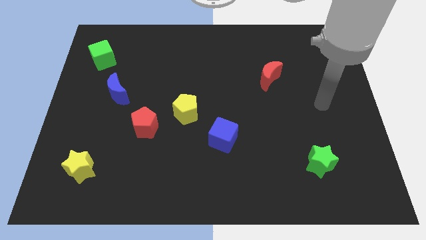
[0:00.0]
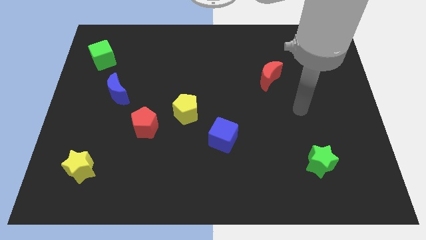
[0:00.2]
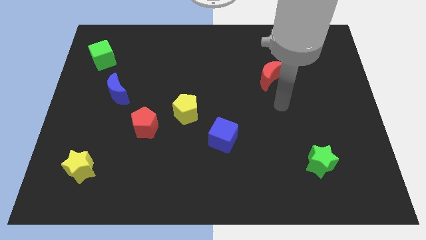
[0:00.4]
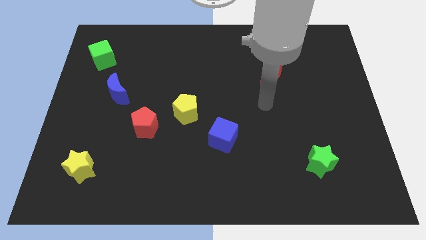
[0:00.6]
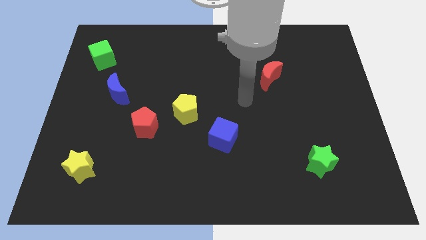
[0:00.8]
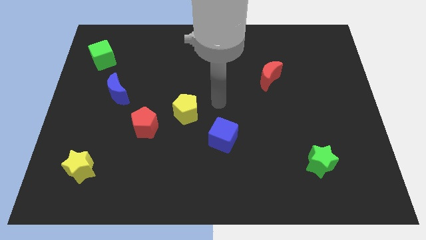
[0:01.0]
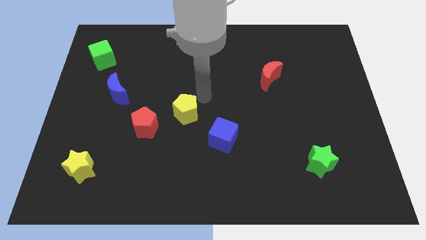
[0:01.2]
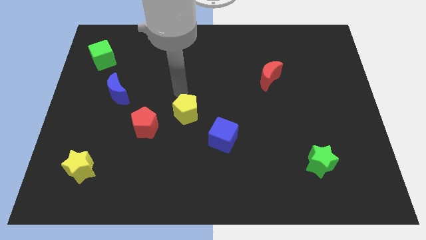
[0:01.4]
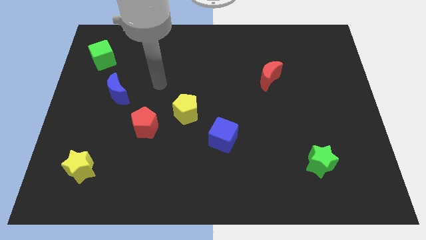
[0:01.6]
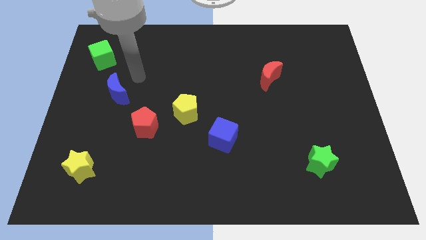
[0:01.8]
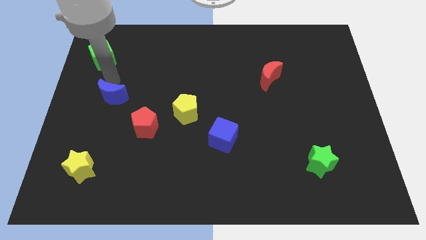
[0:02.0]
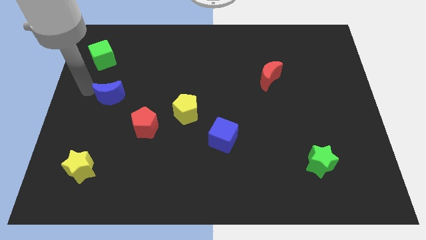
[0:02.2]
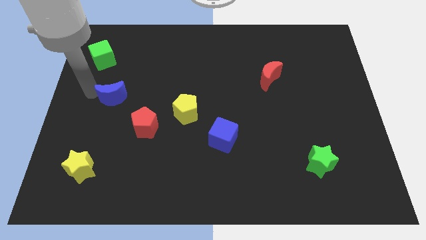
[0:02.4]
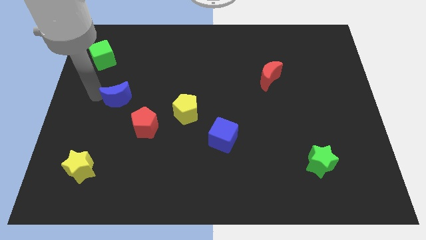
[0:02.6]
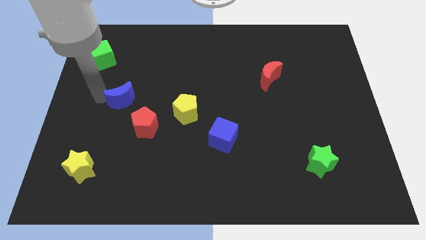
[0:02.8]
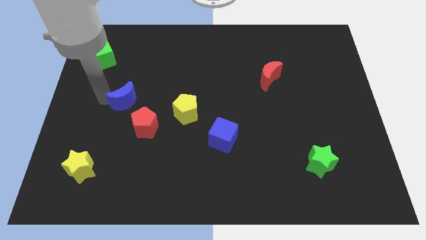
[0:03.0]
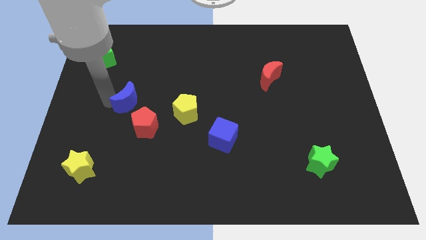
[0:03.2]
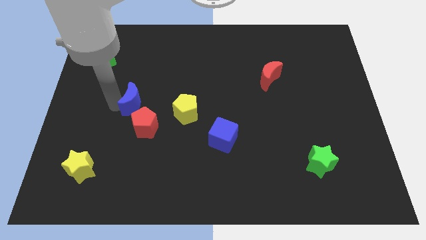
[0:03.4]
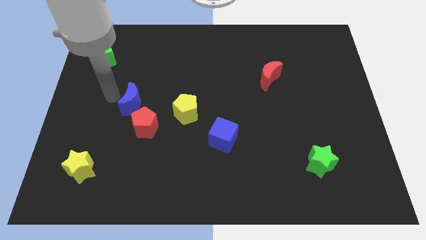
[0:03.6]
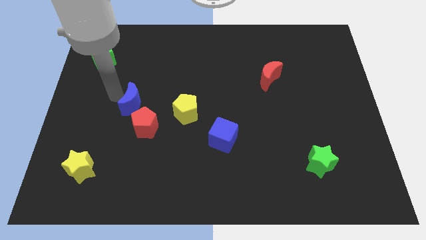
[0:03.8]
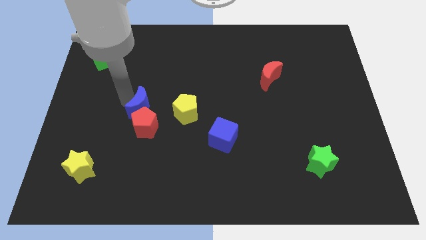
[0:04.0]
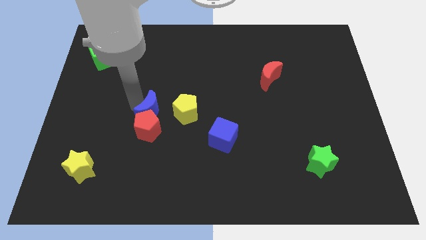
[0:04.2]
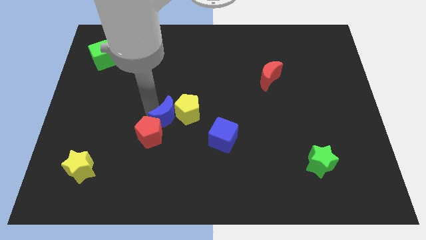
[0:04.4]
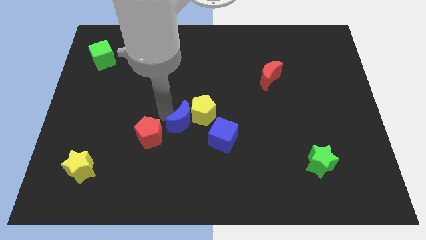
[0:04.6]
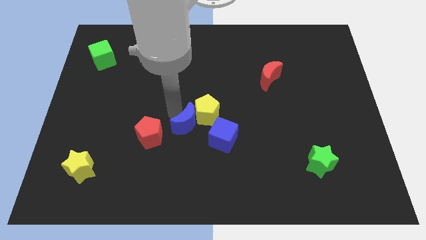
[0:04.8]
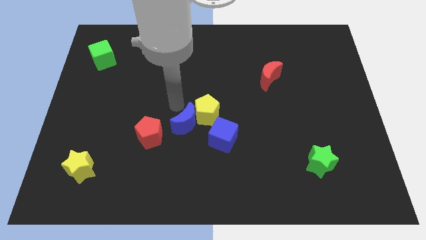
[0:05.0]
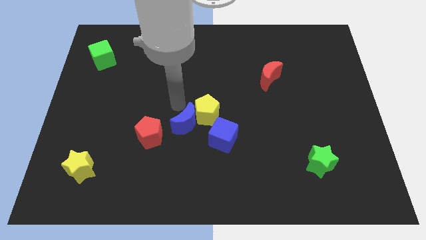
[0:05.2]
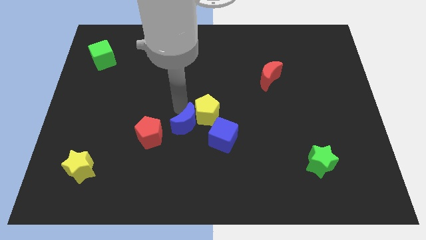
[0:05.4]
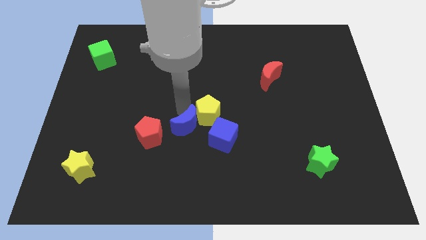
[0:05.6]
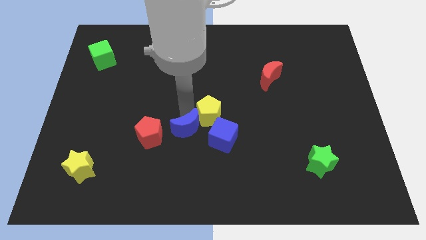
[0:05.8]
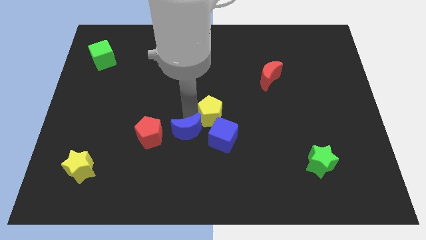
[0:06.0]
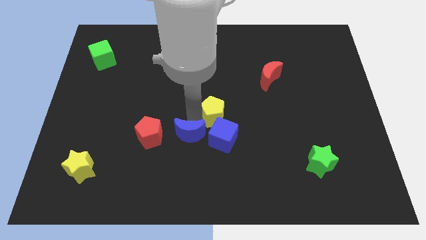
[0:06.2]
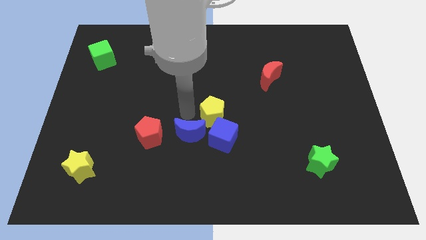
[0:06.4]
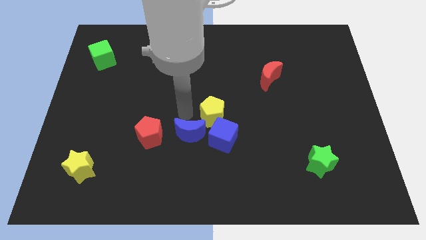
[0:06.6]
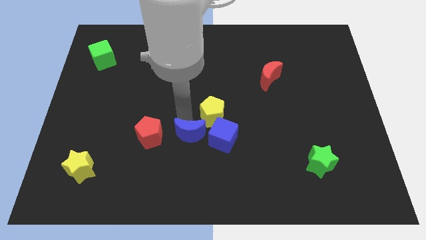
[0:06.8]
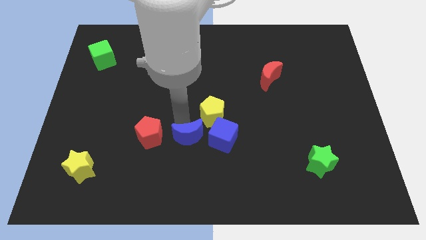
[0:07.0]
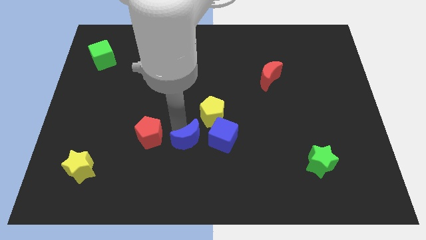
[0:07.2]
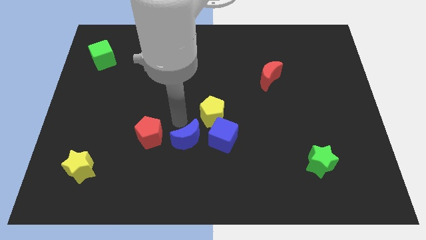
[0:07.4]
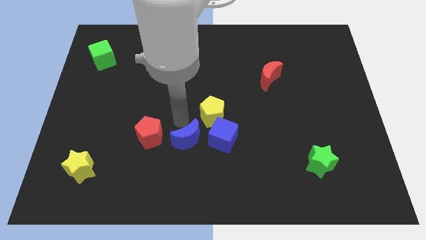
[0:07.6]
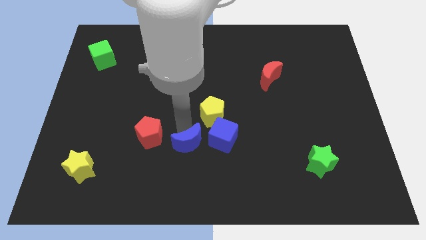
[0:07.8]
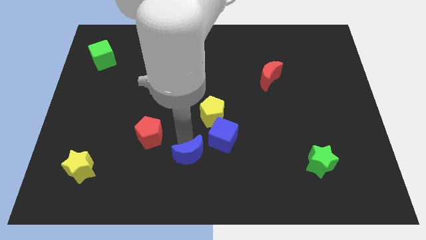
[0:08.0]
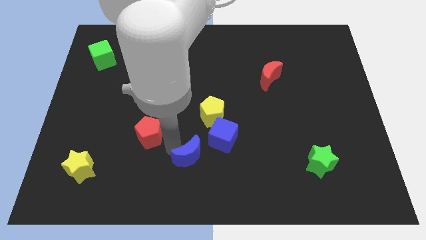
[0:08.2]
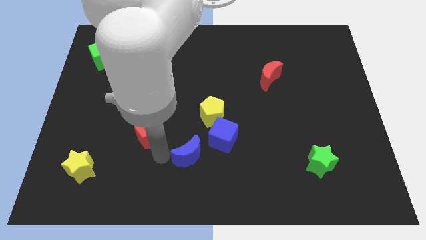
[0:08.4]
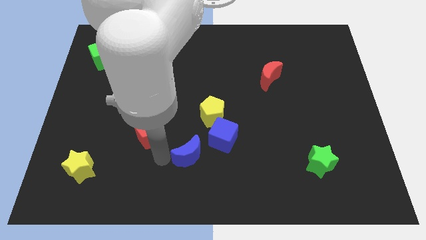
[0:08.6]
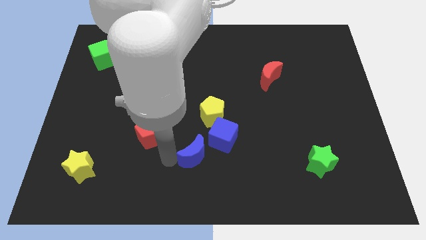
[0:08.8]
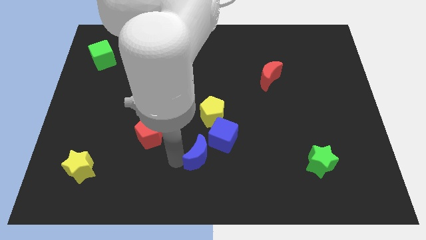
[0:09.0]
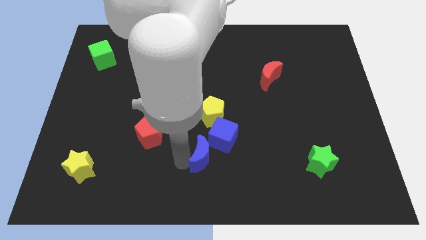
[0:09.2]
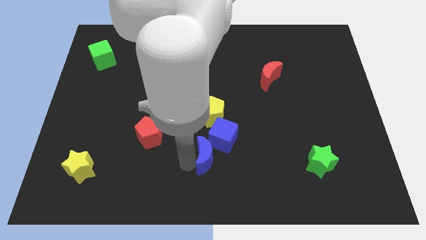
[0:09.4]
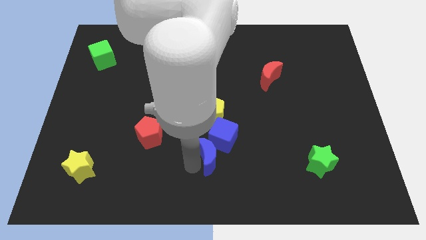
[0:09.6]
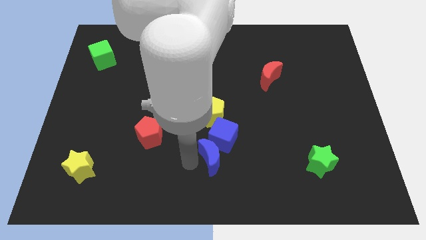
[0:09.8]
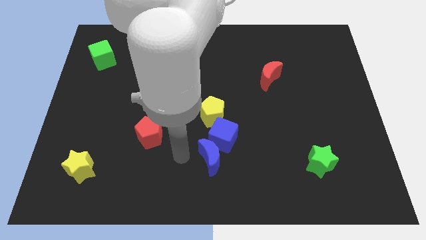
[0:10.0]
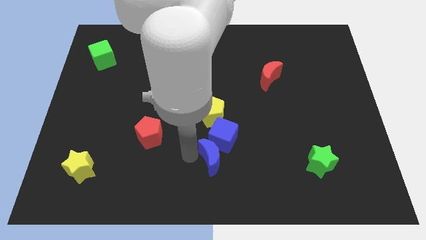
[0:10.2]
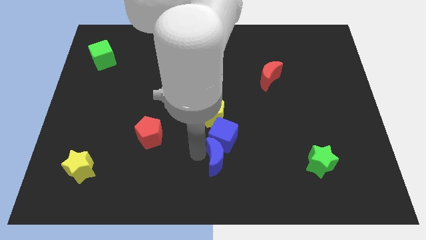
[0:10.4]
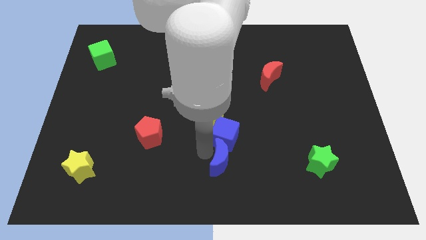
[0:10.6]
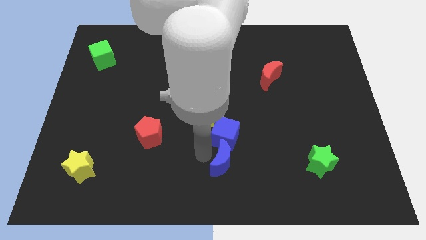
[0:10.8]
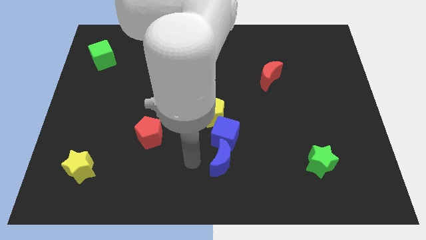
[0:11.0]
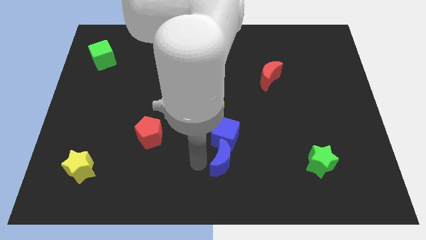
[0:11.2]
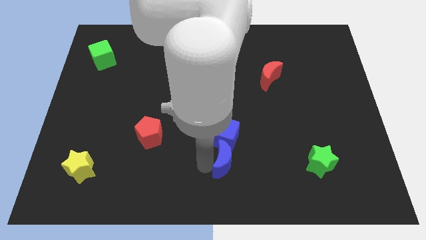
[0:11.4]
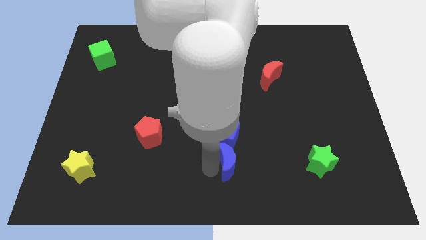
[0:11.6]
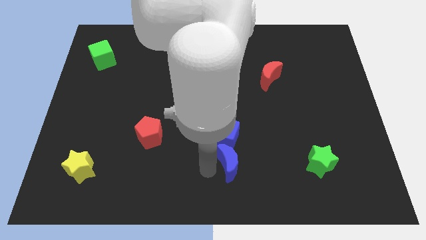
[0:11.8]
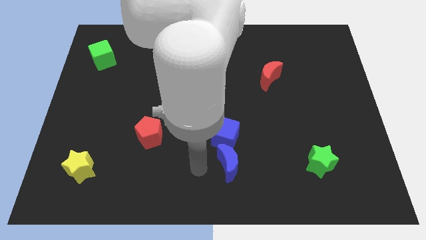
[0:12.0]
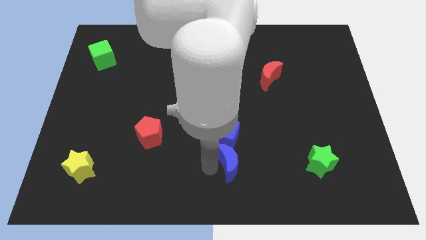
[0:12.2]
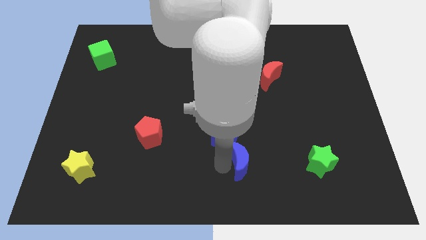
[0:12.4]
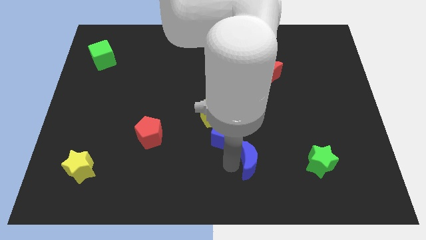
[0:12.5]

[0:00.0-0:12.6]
move the blue moon to the left side of the green star
